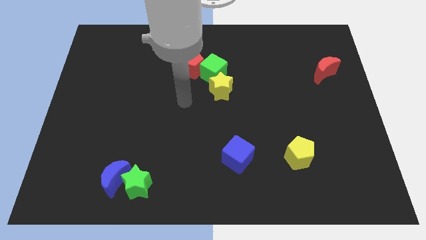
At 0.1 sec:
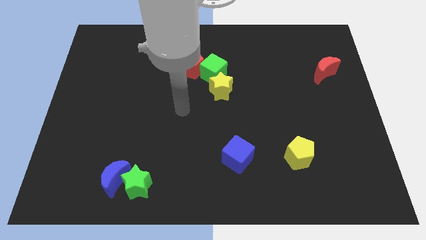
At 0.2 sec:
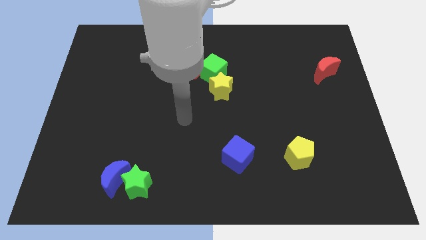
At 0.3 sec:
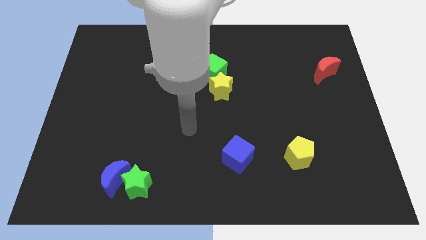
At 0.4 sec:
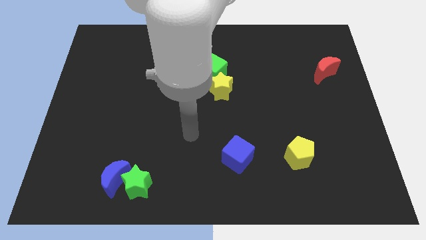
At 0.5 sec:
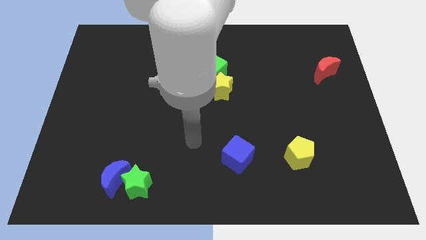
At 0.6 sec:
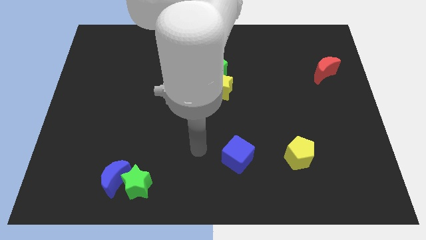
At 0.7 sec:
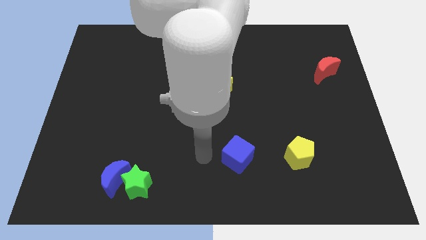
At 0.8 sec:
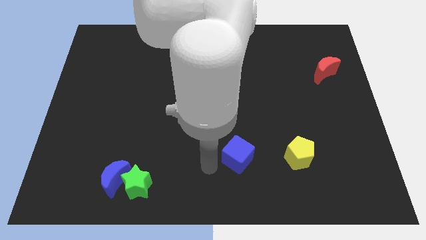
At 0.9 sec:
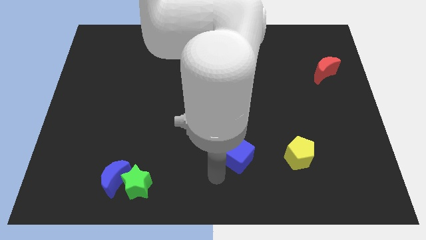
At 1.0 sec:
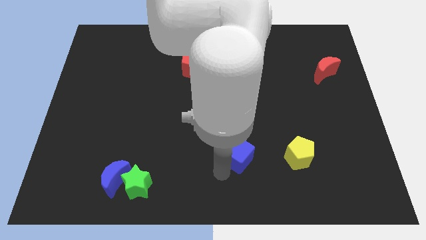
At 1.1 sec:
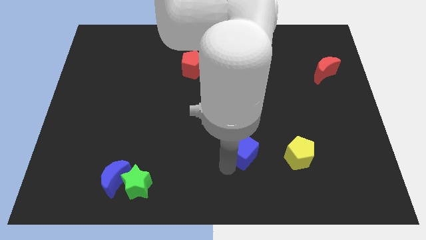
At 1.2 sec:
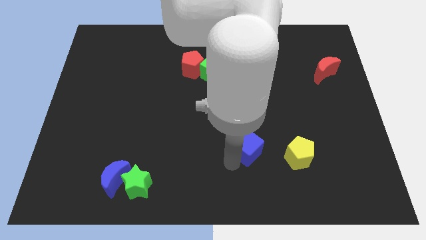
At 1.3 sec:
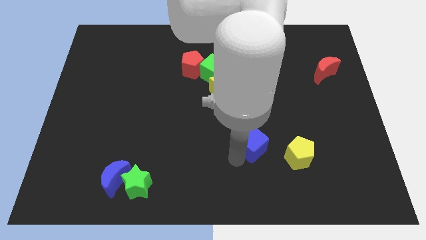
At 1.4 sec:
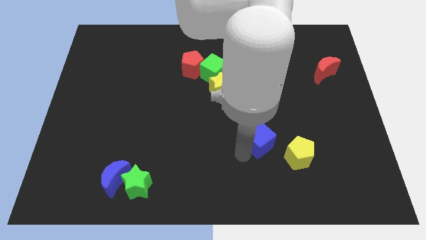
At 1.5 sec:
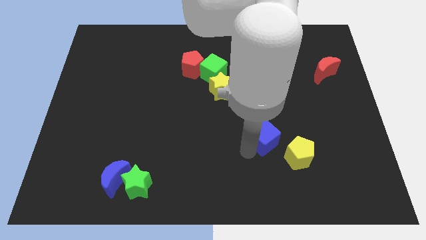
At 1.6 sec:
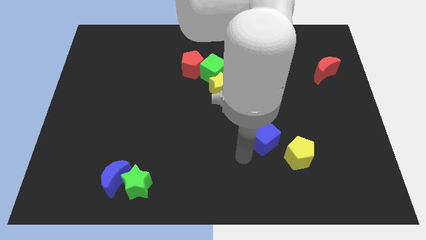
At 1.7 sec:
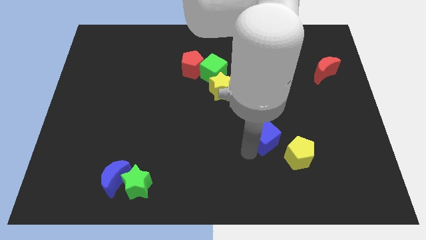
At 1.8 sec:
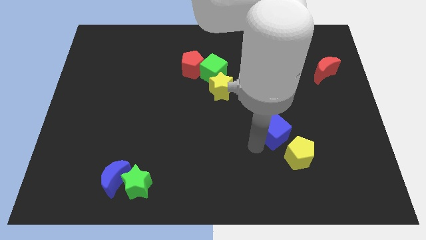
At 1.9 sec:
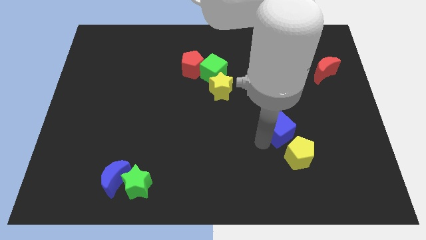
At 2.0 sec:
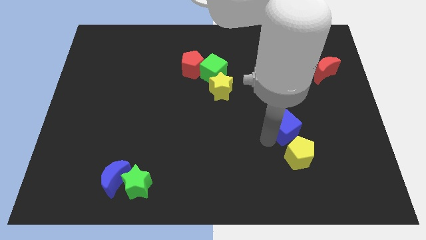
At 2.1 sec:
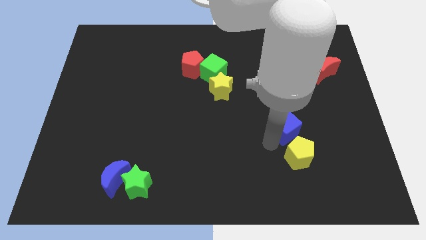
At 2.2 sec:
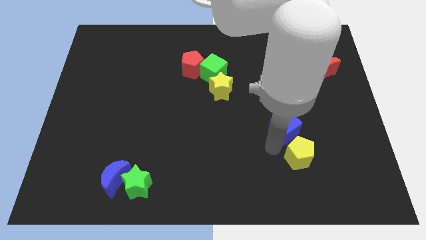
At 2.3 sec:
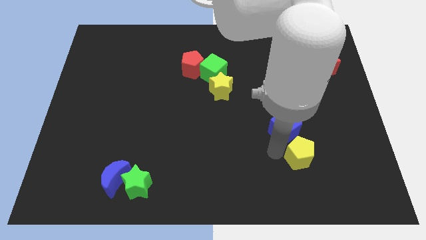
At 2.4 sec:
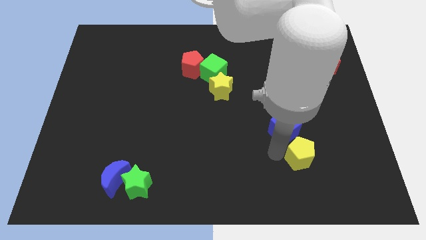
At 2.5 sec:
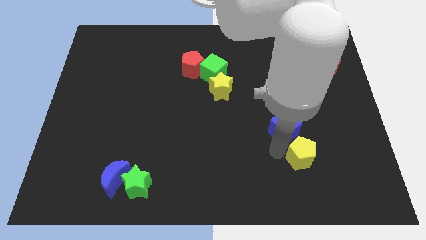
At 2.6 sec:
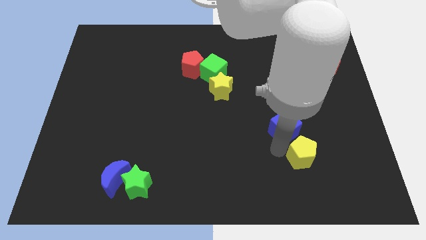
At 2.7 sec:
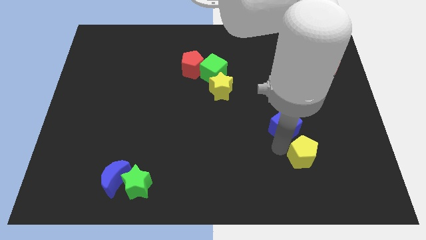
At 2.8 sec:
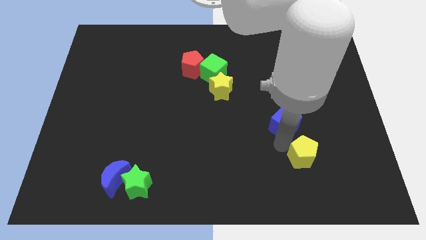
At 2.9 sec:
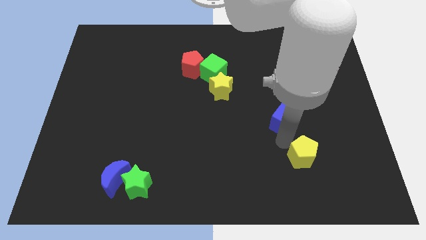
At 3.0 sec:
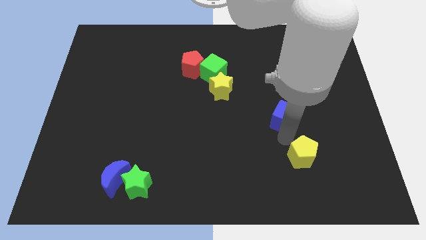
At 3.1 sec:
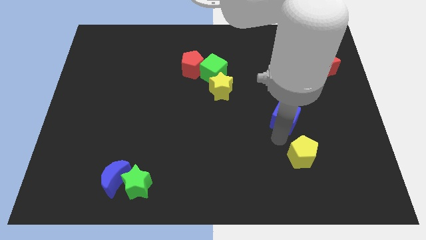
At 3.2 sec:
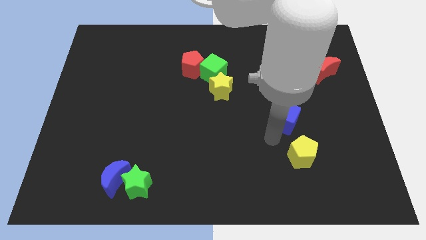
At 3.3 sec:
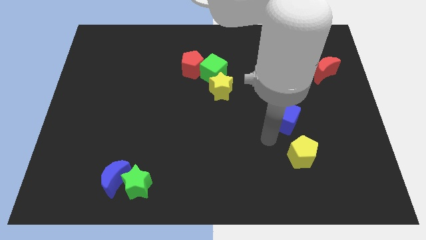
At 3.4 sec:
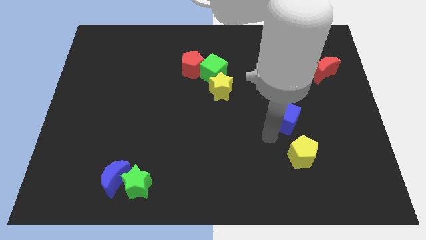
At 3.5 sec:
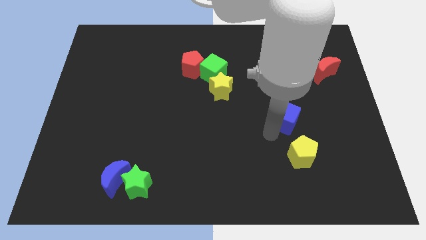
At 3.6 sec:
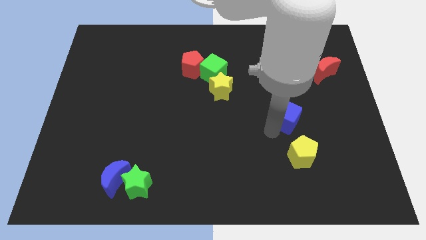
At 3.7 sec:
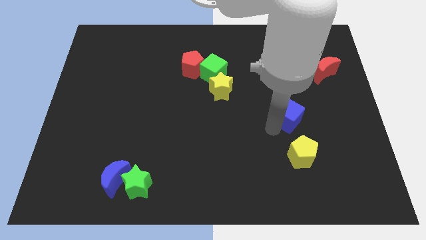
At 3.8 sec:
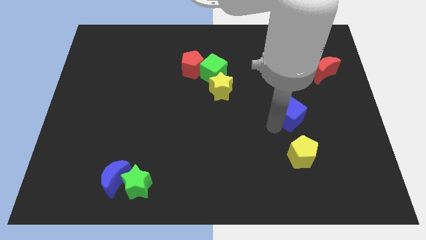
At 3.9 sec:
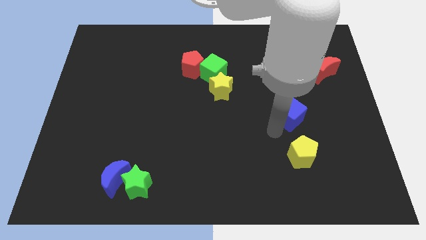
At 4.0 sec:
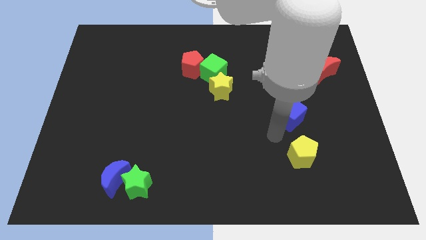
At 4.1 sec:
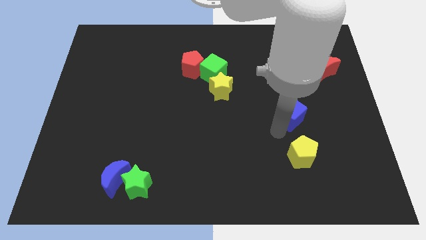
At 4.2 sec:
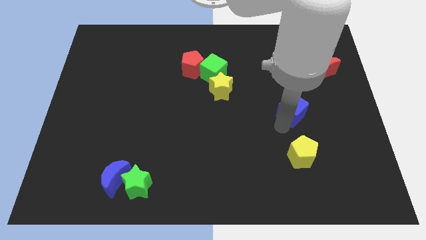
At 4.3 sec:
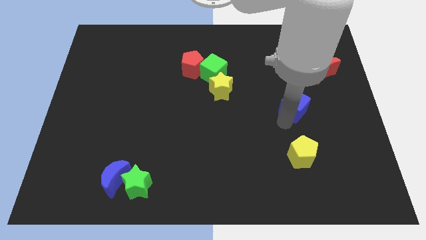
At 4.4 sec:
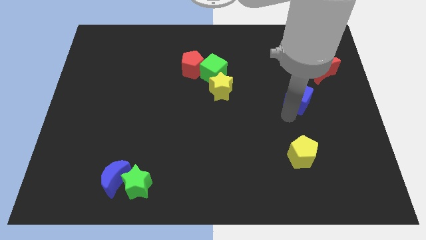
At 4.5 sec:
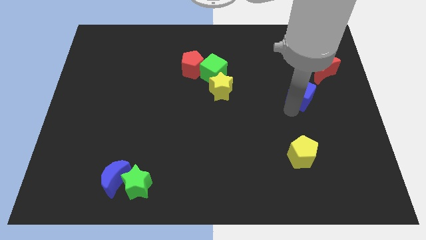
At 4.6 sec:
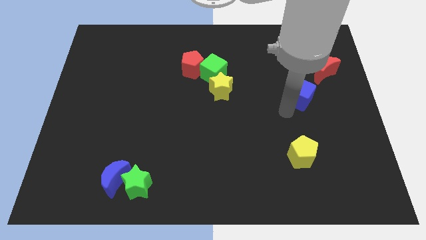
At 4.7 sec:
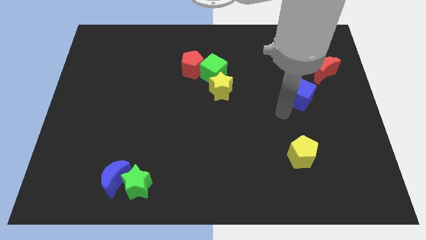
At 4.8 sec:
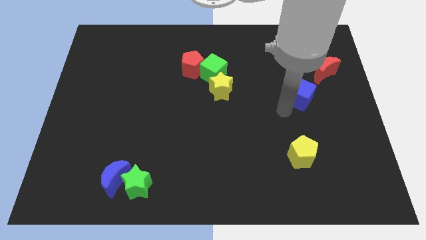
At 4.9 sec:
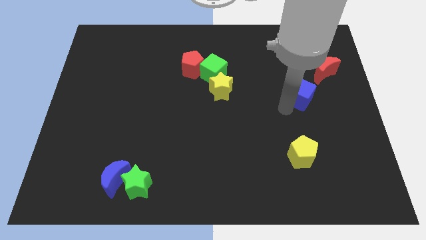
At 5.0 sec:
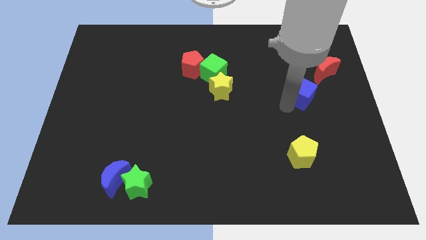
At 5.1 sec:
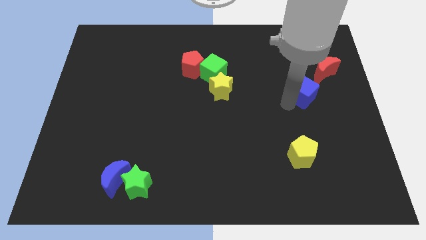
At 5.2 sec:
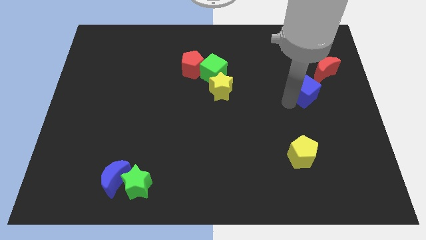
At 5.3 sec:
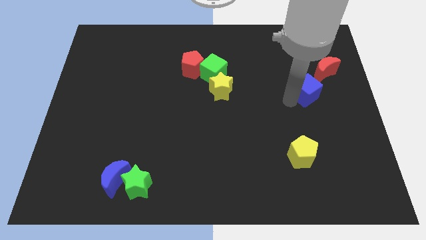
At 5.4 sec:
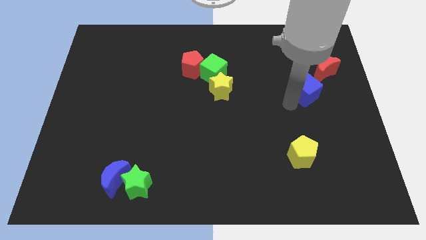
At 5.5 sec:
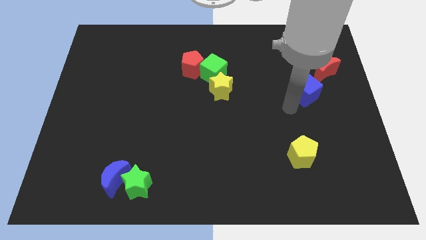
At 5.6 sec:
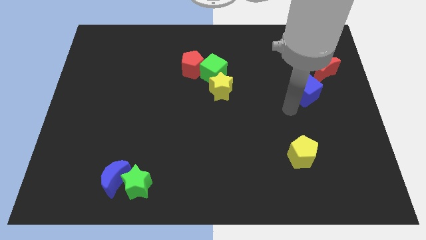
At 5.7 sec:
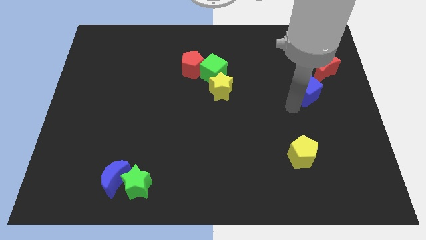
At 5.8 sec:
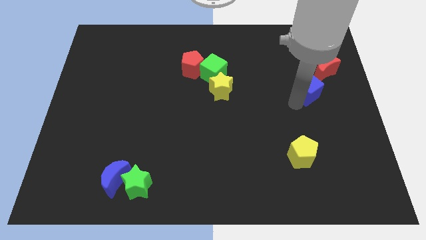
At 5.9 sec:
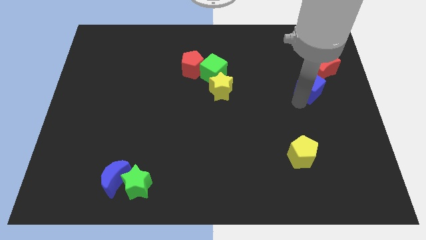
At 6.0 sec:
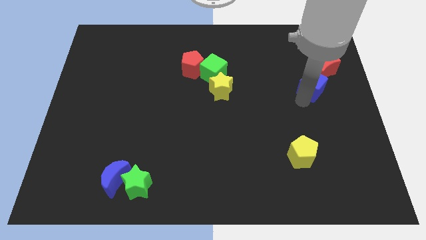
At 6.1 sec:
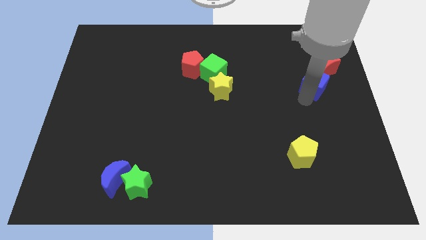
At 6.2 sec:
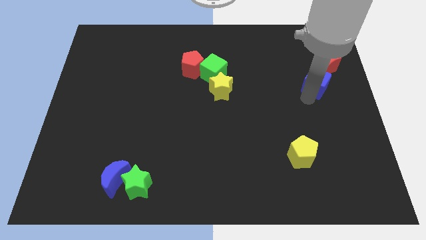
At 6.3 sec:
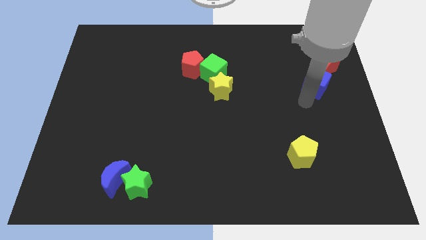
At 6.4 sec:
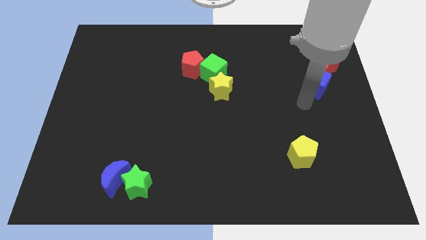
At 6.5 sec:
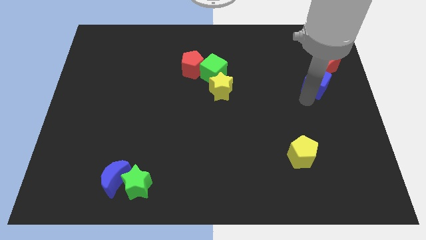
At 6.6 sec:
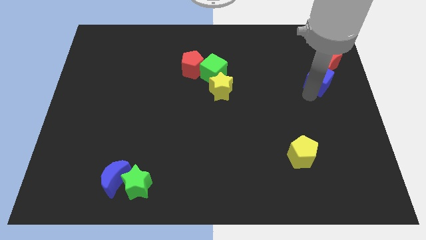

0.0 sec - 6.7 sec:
slide the blue cube next to the red moon

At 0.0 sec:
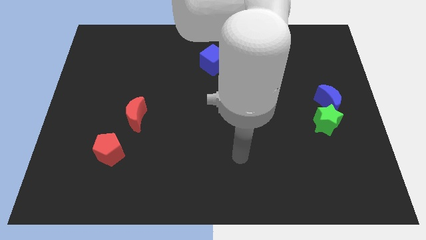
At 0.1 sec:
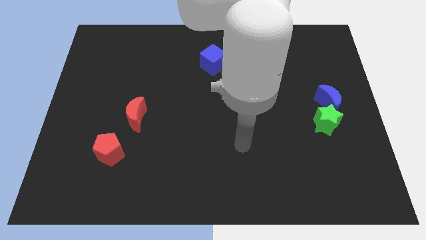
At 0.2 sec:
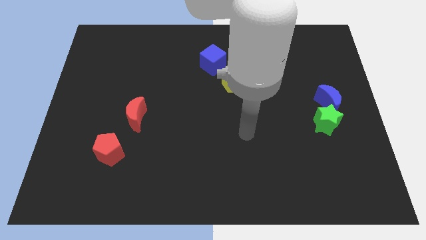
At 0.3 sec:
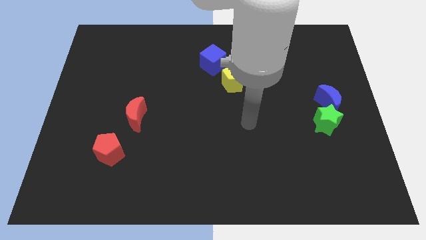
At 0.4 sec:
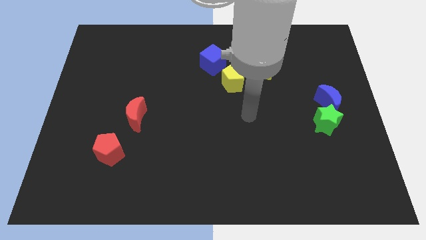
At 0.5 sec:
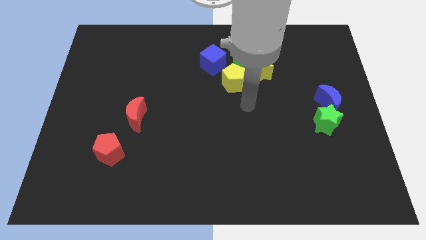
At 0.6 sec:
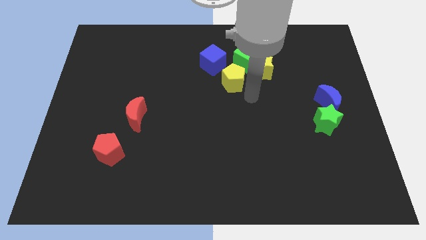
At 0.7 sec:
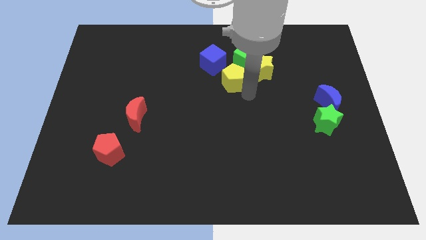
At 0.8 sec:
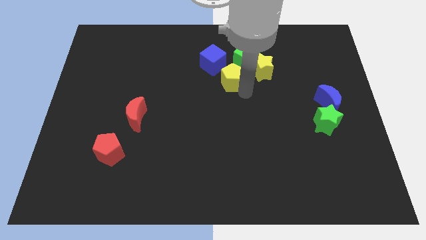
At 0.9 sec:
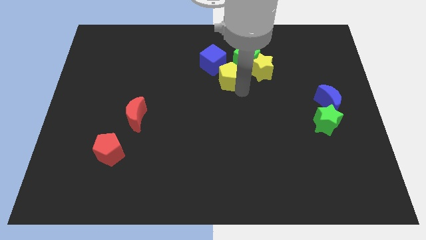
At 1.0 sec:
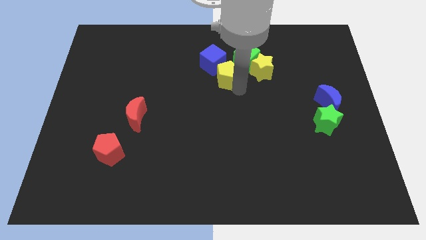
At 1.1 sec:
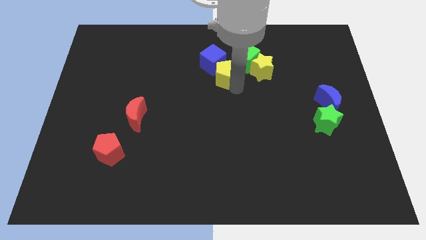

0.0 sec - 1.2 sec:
slide the yellow pentagon towards the blue cube

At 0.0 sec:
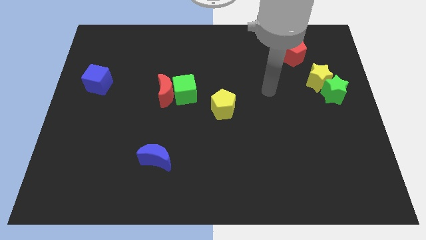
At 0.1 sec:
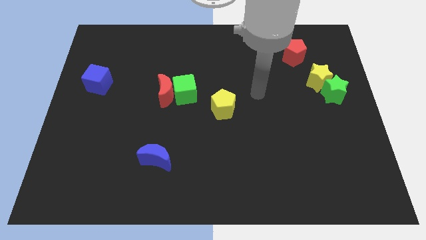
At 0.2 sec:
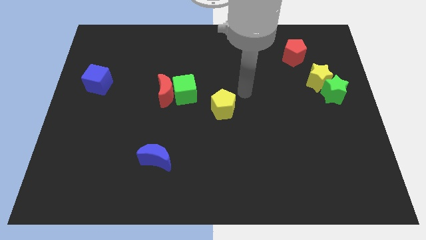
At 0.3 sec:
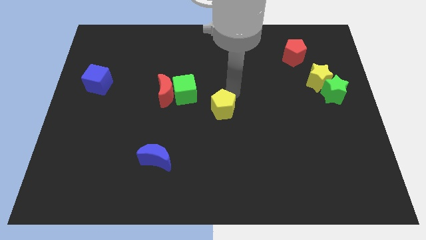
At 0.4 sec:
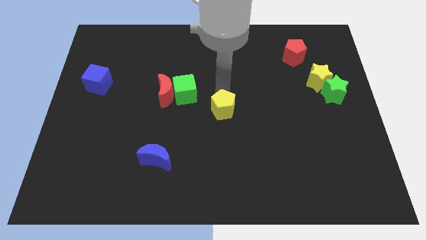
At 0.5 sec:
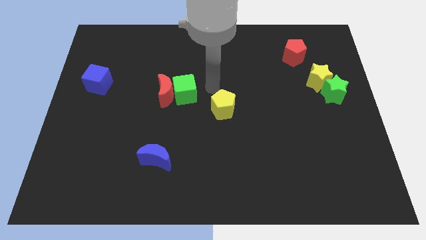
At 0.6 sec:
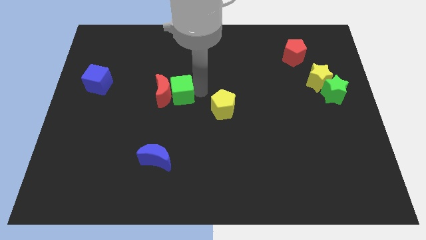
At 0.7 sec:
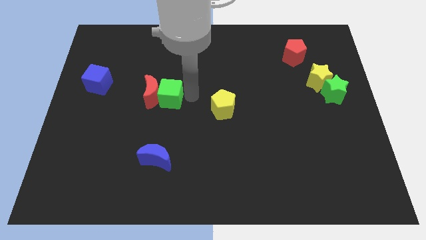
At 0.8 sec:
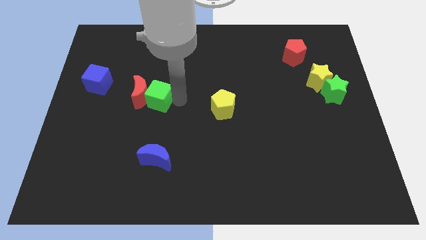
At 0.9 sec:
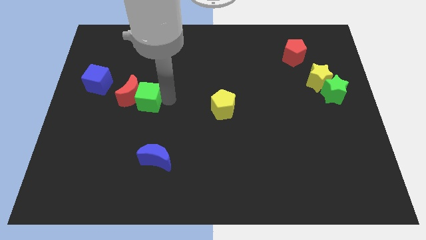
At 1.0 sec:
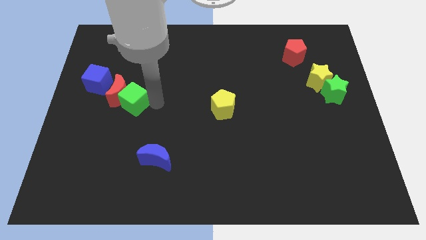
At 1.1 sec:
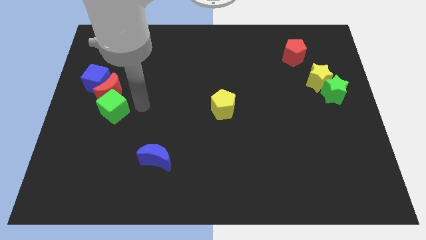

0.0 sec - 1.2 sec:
push the red moon next to the blue cube
